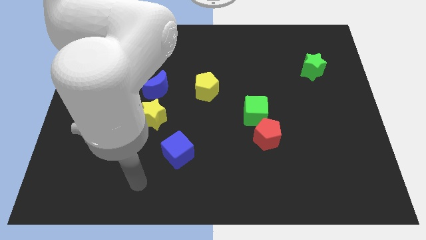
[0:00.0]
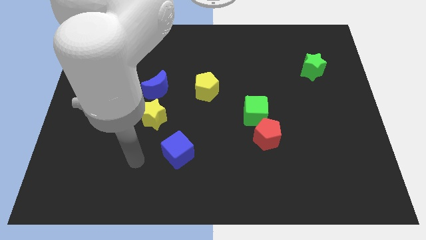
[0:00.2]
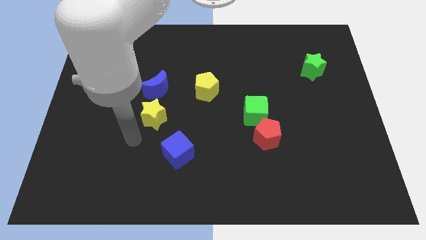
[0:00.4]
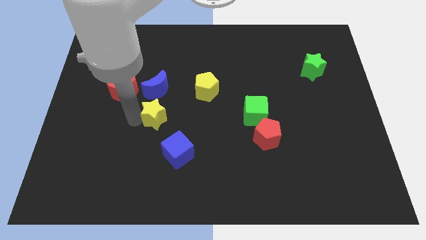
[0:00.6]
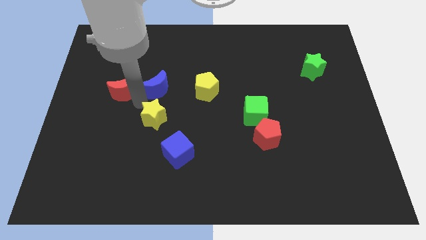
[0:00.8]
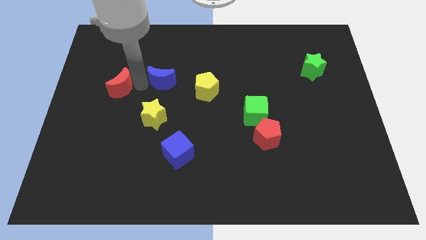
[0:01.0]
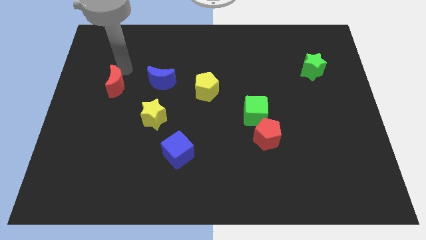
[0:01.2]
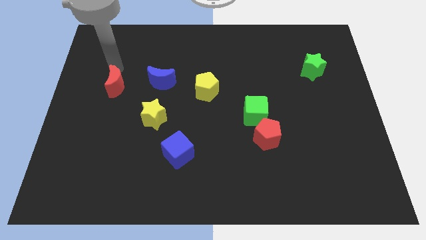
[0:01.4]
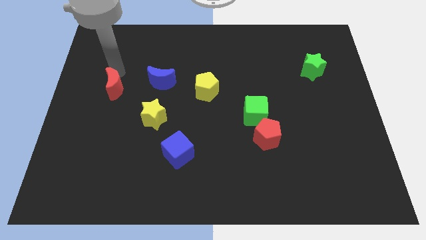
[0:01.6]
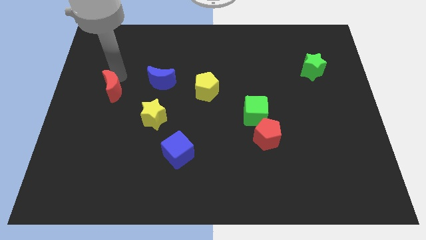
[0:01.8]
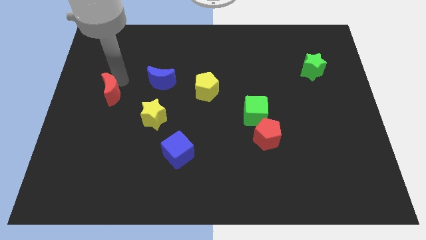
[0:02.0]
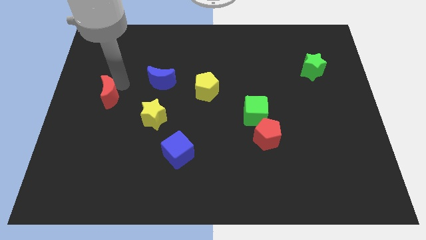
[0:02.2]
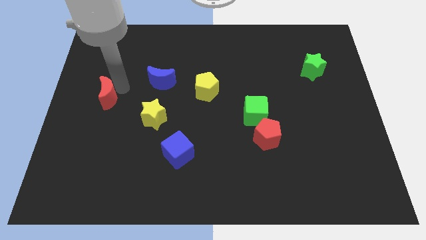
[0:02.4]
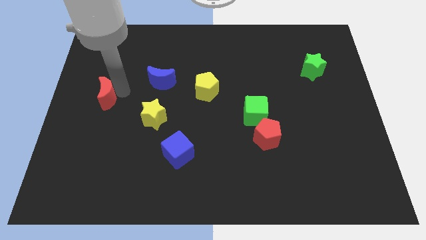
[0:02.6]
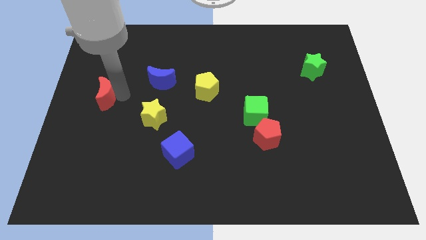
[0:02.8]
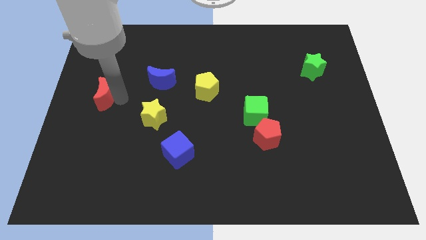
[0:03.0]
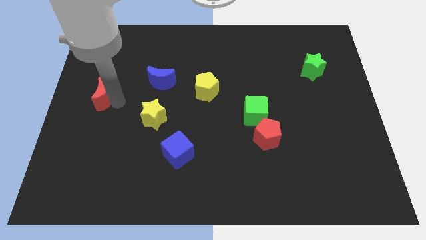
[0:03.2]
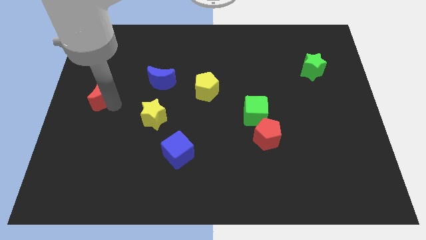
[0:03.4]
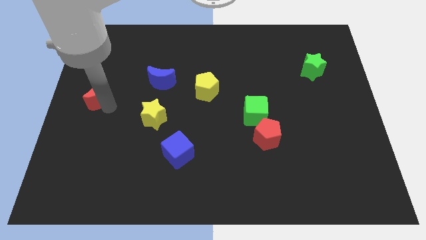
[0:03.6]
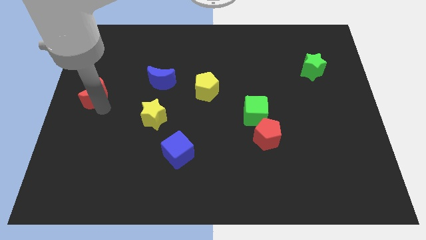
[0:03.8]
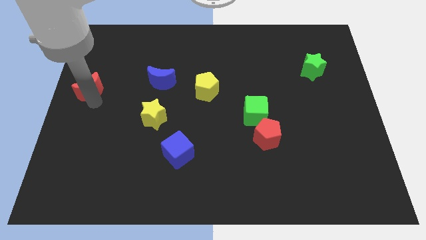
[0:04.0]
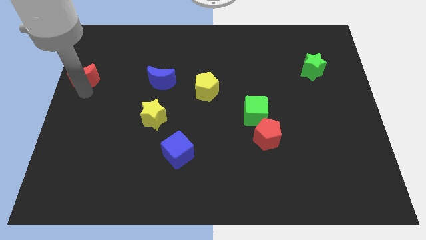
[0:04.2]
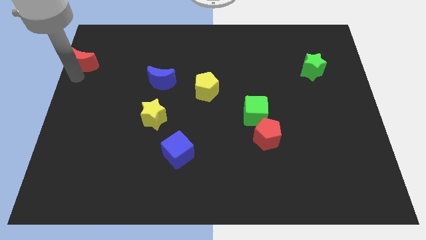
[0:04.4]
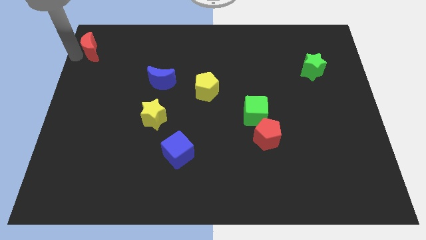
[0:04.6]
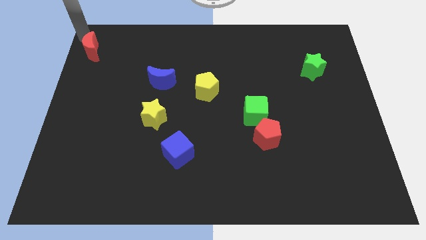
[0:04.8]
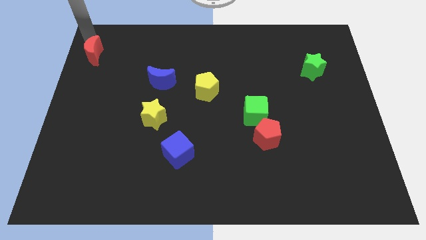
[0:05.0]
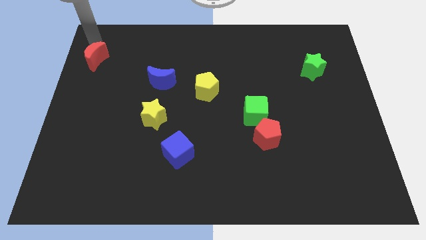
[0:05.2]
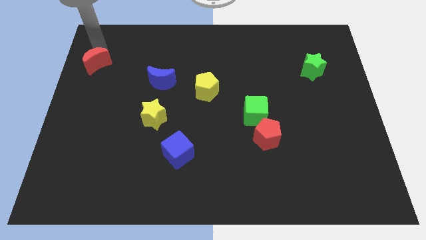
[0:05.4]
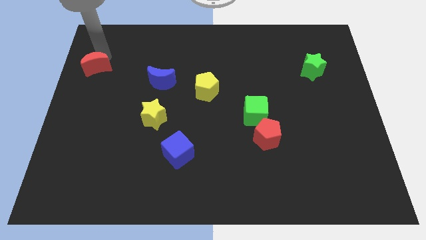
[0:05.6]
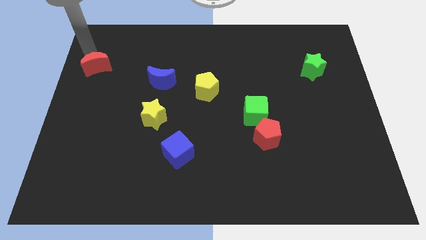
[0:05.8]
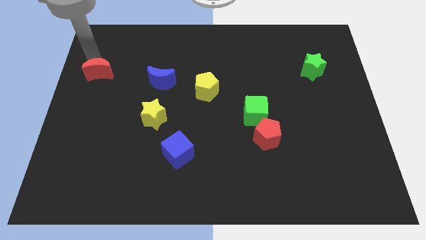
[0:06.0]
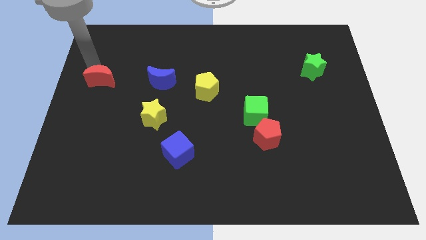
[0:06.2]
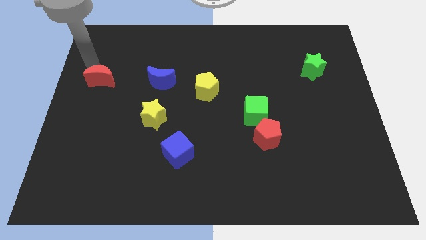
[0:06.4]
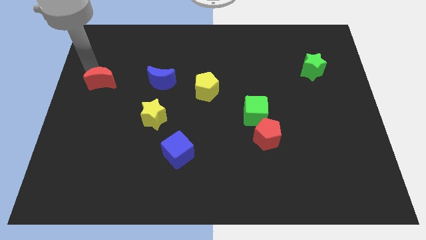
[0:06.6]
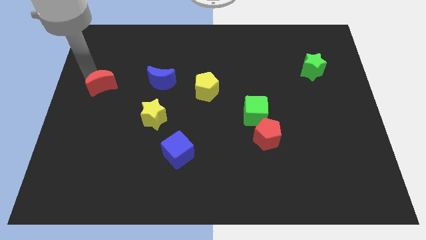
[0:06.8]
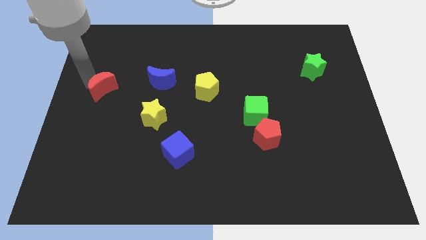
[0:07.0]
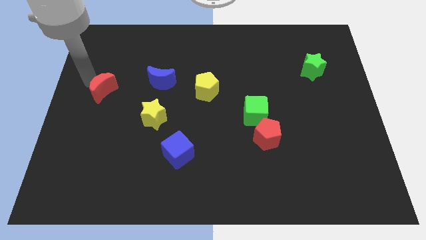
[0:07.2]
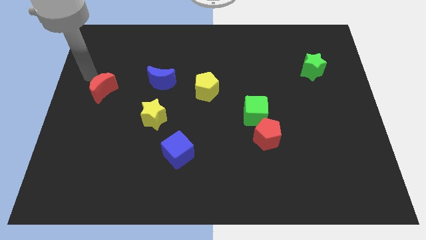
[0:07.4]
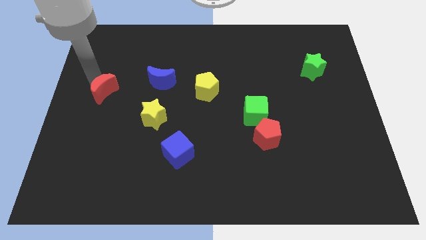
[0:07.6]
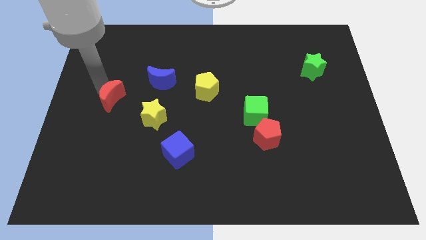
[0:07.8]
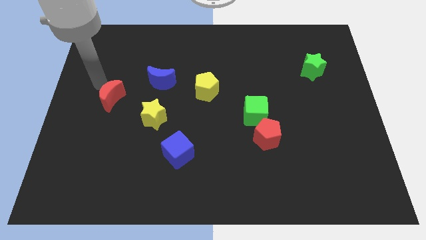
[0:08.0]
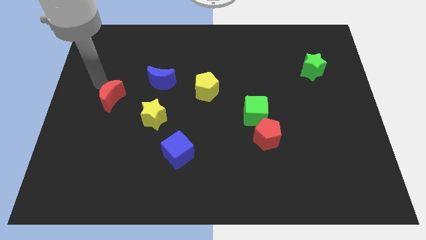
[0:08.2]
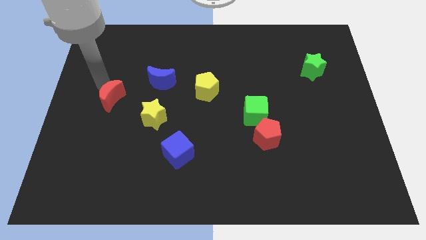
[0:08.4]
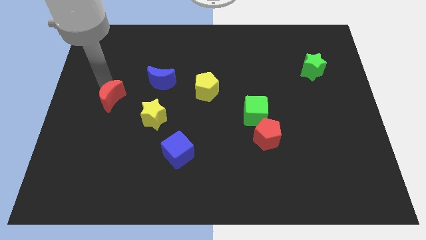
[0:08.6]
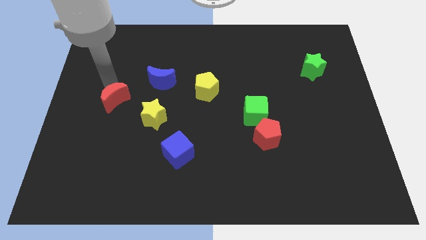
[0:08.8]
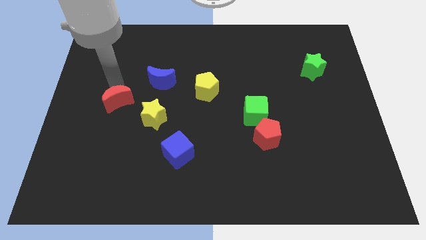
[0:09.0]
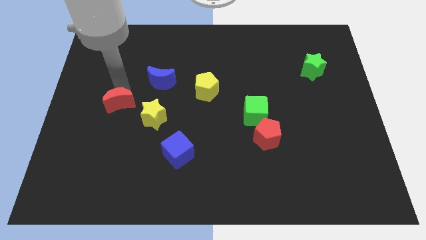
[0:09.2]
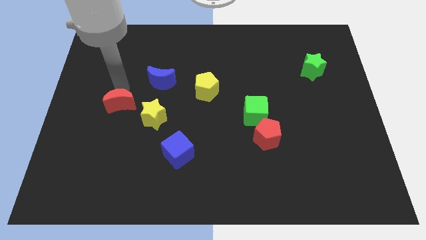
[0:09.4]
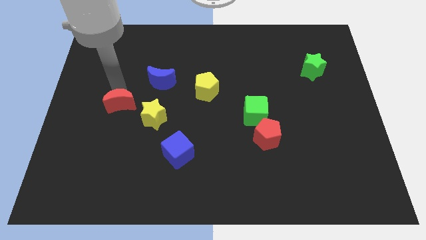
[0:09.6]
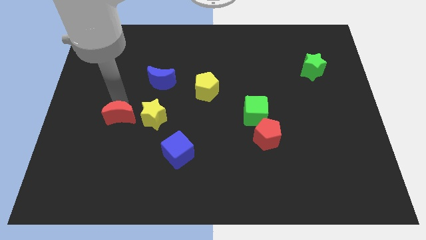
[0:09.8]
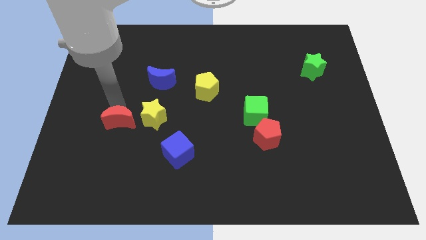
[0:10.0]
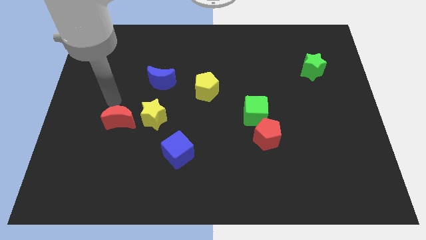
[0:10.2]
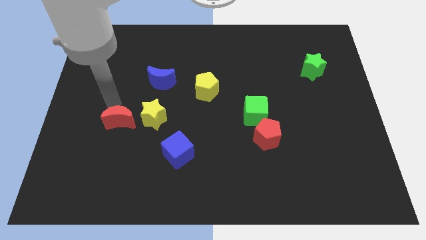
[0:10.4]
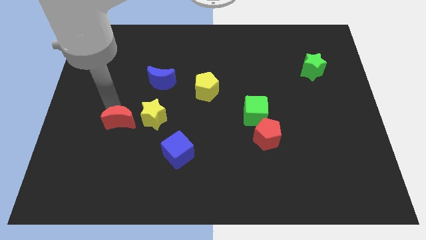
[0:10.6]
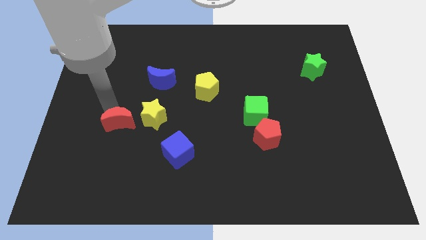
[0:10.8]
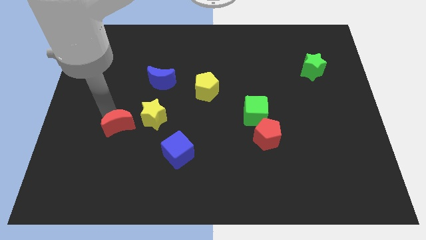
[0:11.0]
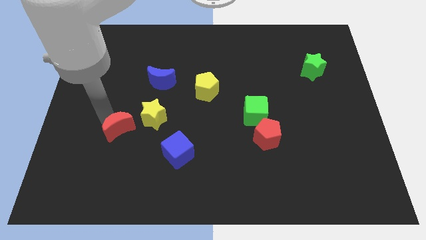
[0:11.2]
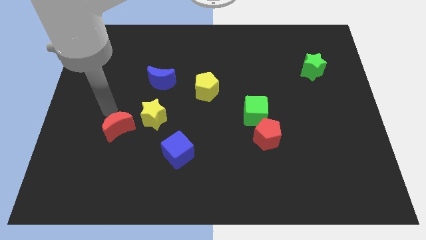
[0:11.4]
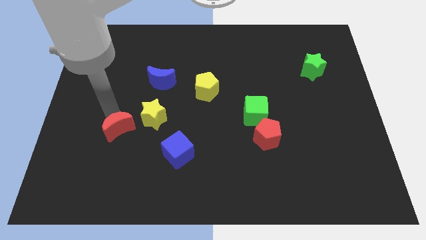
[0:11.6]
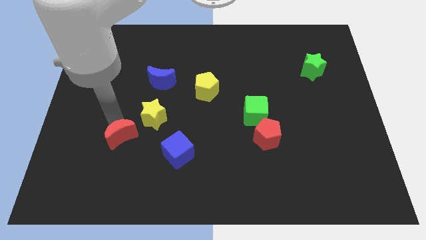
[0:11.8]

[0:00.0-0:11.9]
slide the red moon to the left of the blue cube

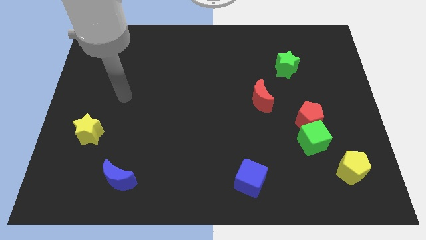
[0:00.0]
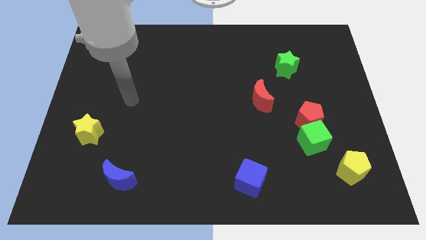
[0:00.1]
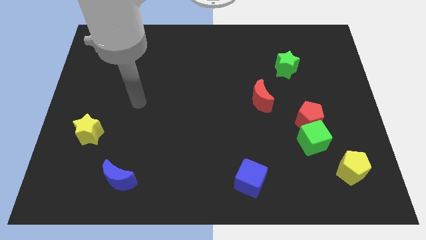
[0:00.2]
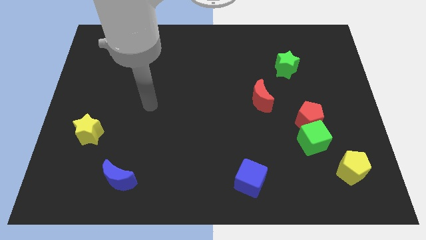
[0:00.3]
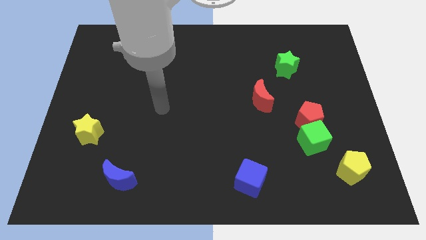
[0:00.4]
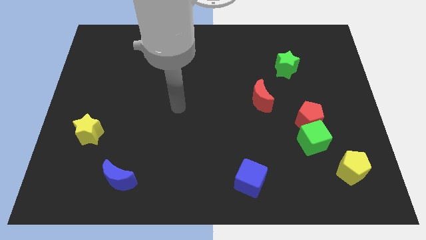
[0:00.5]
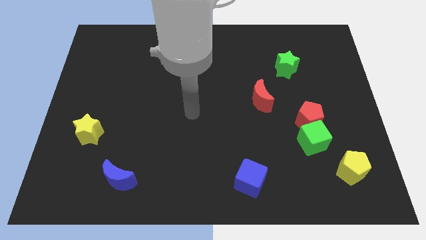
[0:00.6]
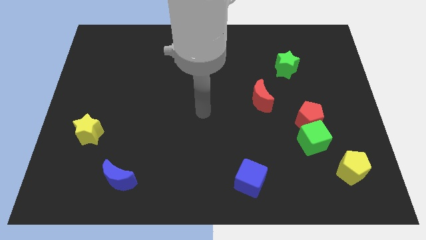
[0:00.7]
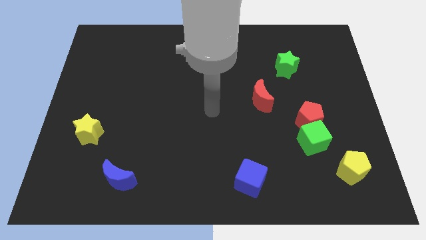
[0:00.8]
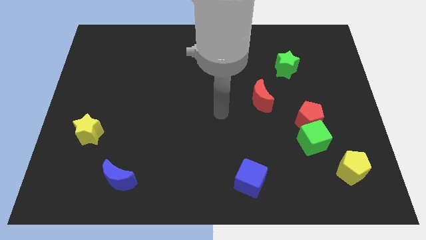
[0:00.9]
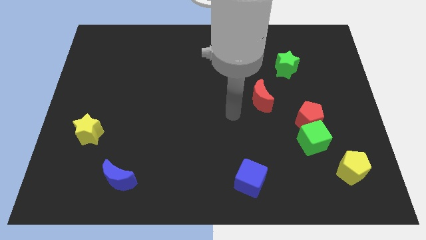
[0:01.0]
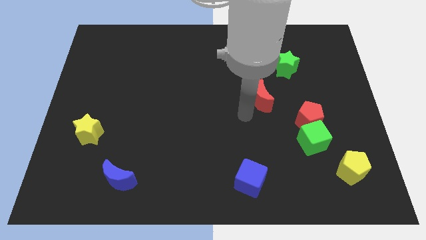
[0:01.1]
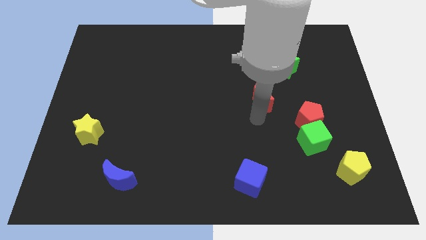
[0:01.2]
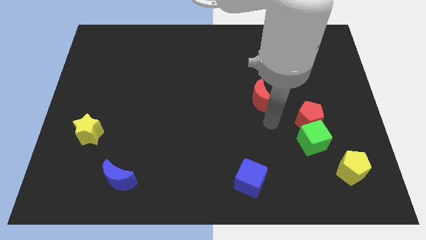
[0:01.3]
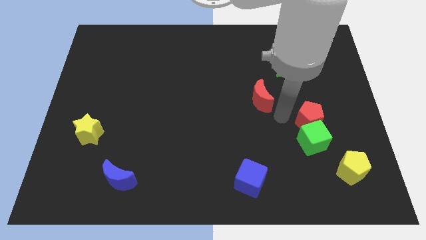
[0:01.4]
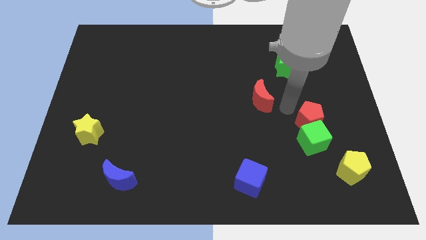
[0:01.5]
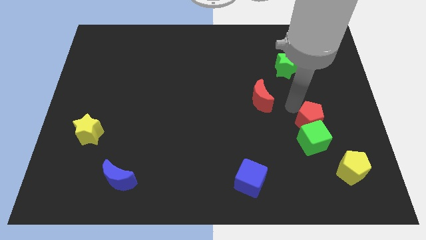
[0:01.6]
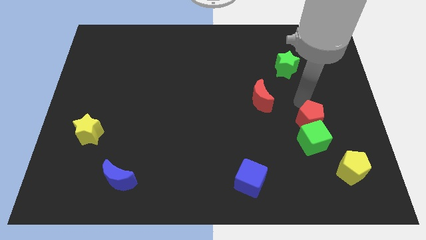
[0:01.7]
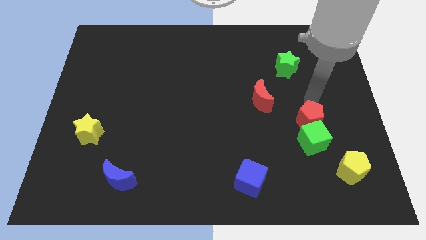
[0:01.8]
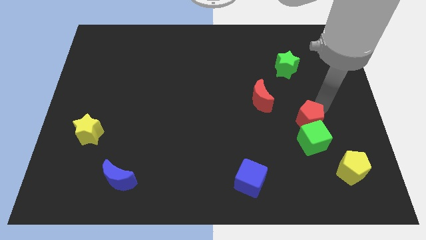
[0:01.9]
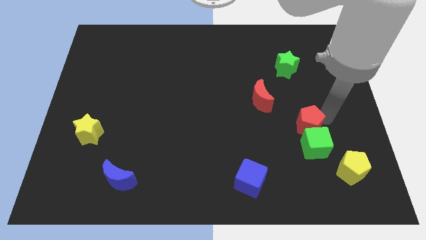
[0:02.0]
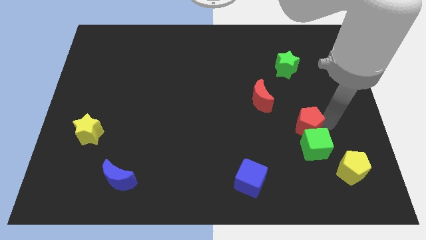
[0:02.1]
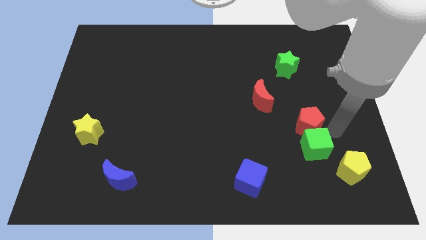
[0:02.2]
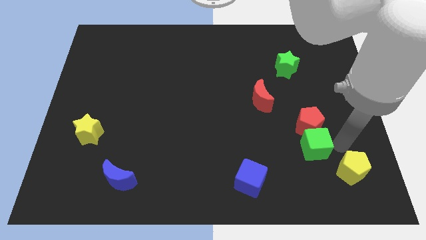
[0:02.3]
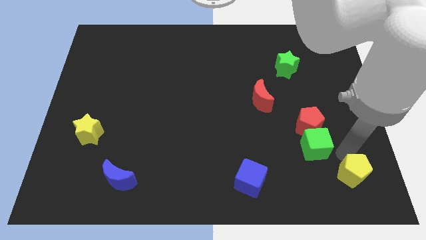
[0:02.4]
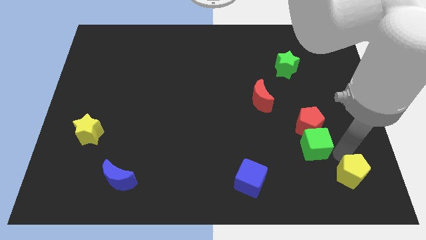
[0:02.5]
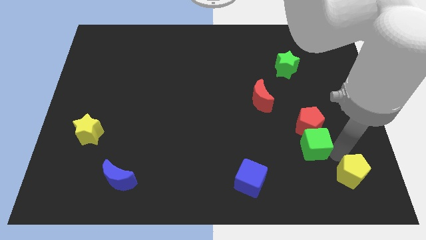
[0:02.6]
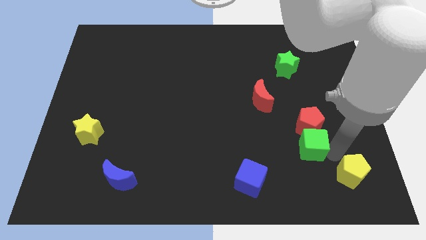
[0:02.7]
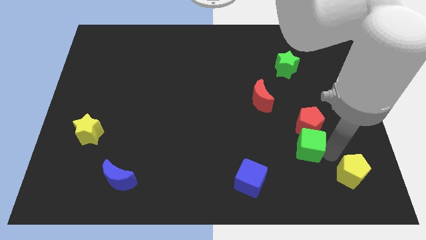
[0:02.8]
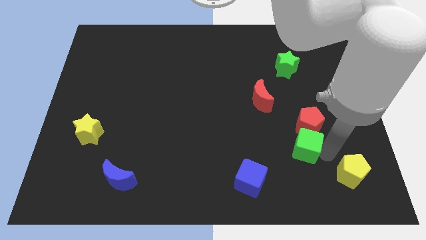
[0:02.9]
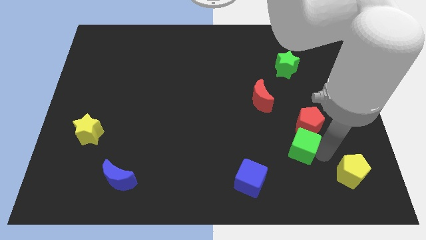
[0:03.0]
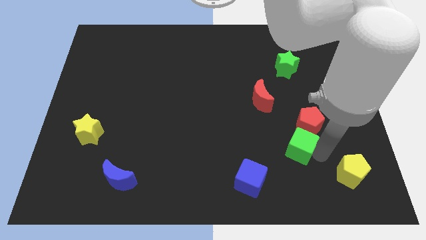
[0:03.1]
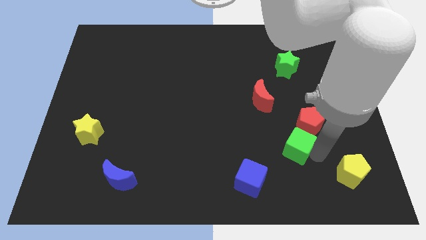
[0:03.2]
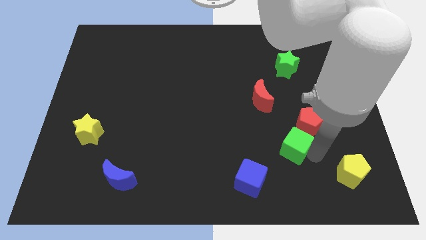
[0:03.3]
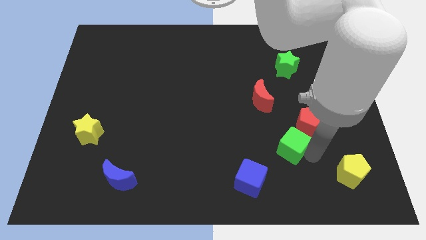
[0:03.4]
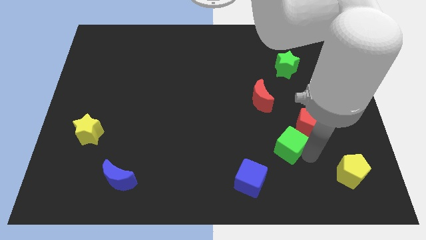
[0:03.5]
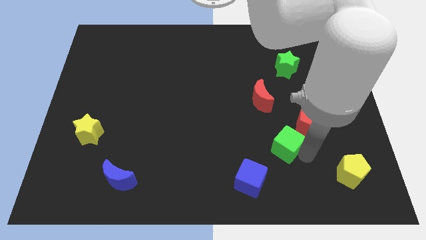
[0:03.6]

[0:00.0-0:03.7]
put the green cube to the bottom side of the red moon
